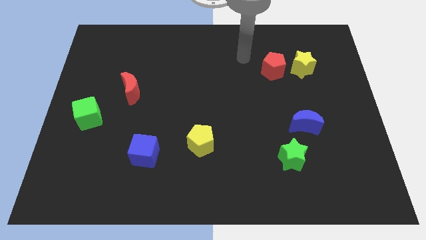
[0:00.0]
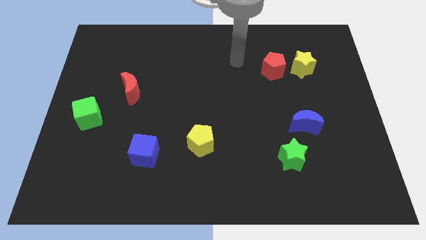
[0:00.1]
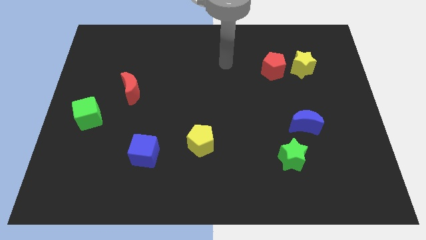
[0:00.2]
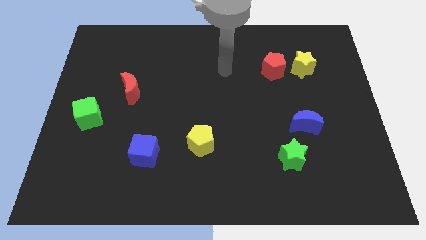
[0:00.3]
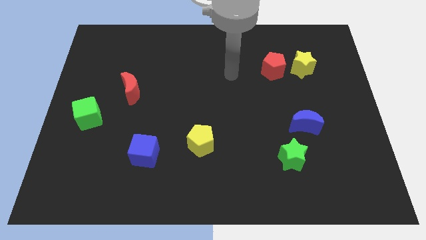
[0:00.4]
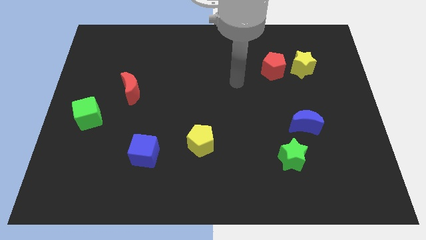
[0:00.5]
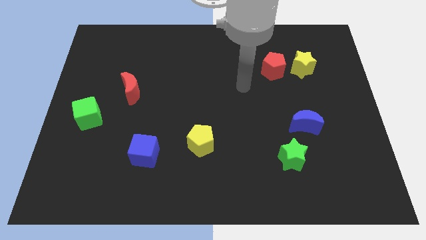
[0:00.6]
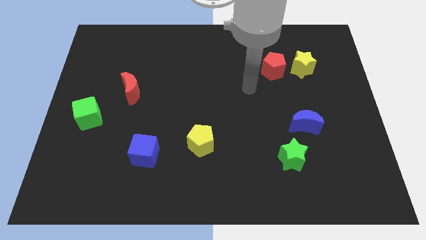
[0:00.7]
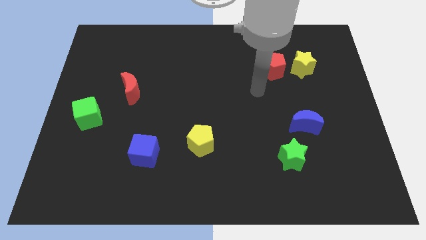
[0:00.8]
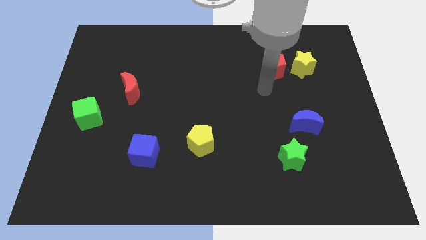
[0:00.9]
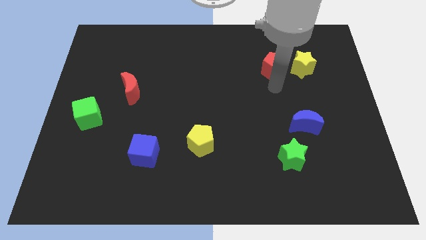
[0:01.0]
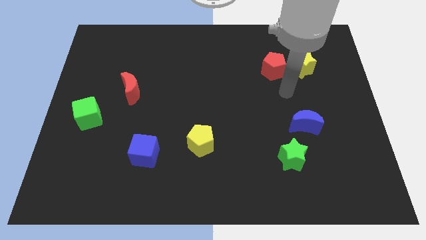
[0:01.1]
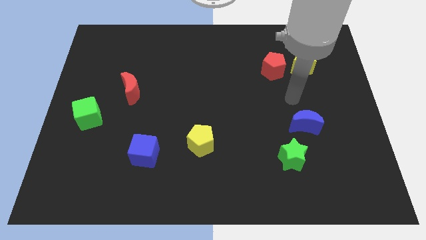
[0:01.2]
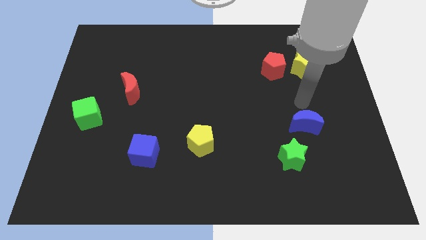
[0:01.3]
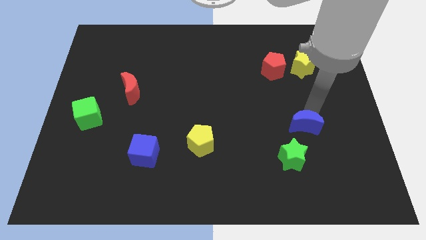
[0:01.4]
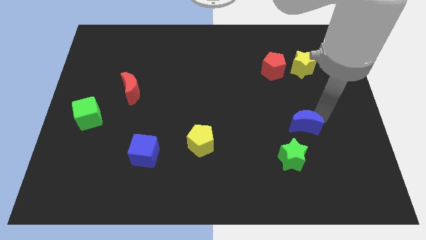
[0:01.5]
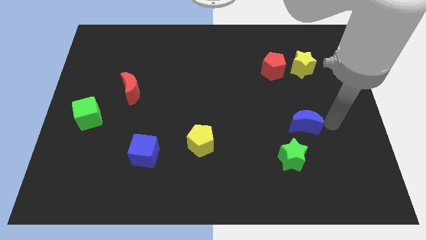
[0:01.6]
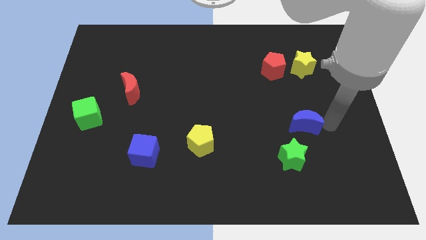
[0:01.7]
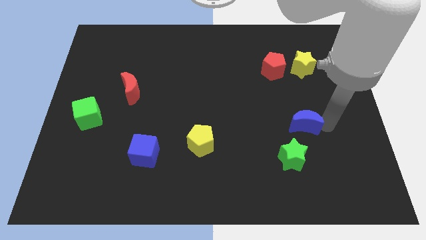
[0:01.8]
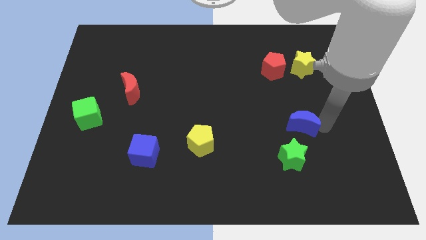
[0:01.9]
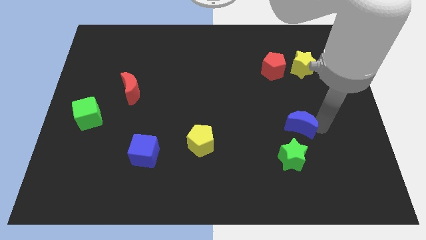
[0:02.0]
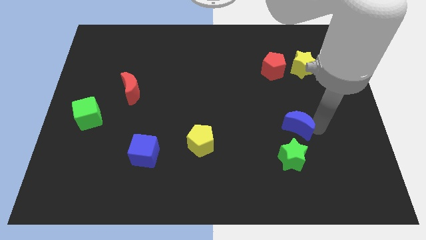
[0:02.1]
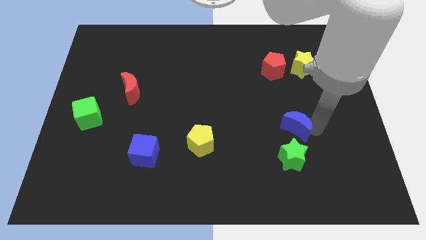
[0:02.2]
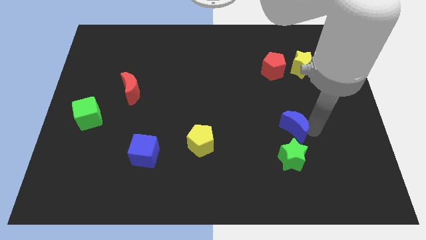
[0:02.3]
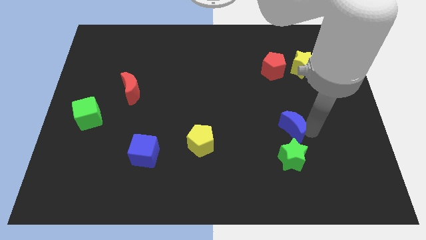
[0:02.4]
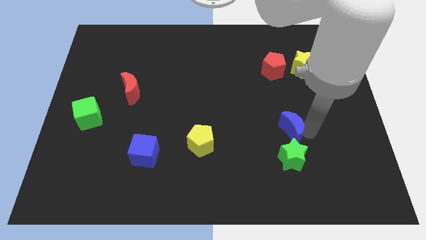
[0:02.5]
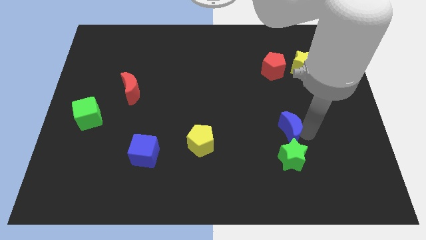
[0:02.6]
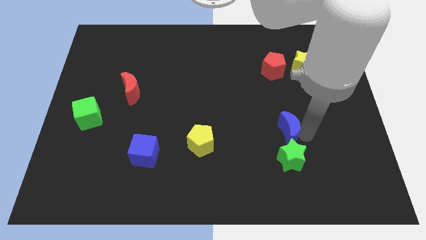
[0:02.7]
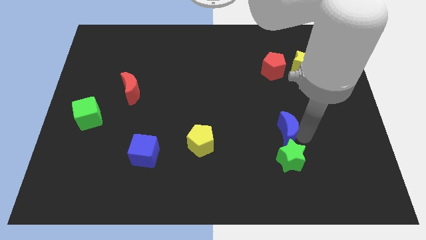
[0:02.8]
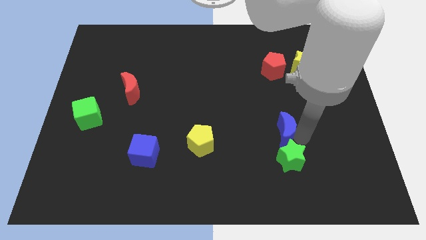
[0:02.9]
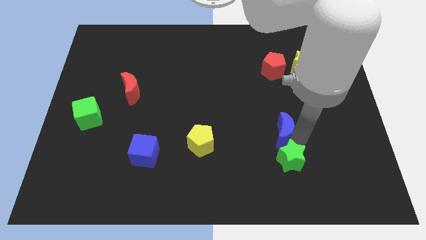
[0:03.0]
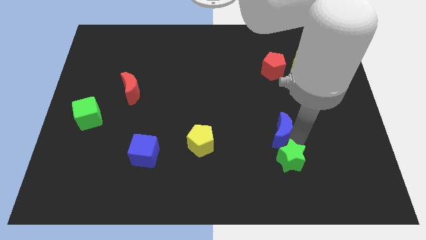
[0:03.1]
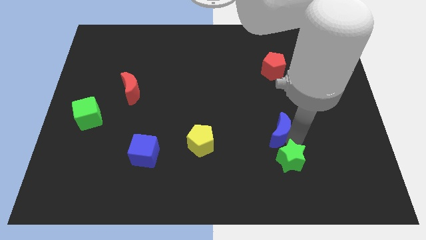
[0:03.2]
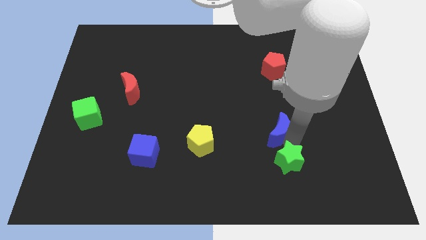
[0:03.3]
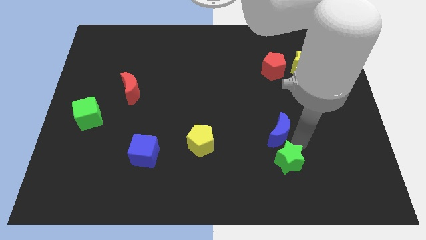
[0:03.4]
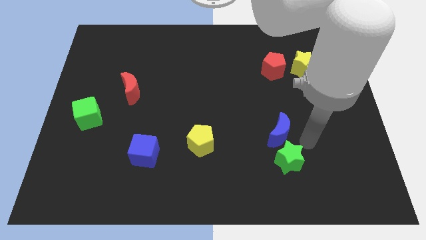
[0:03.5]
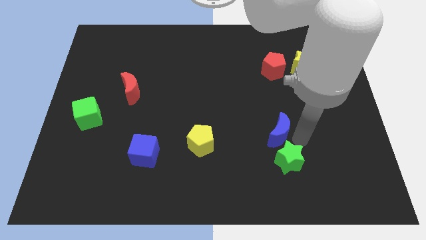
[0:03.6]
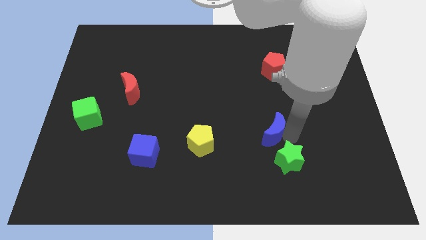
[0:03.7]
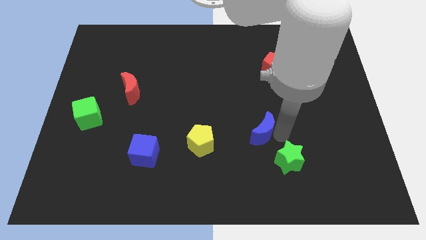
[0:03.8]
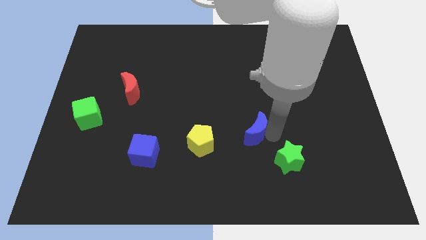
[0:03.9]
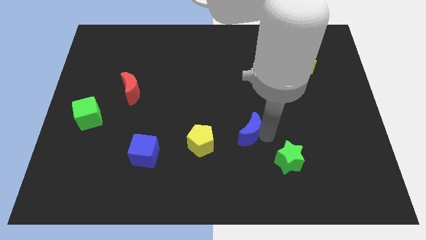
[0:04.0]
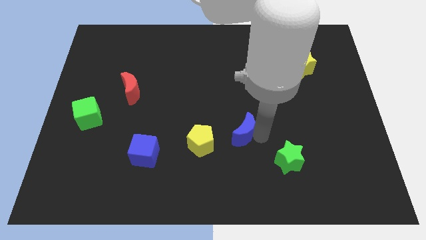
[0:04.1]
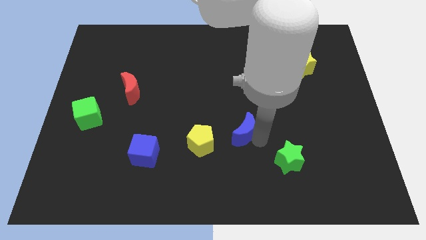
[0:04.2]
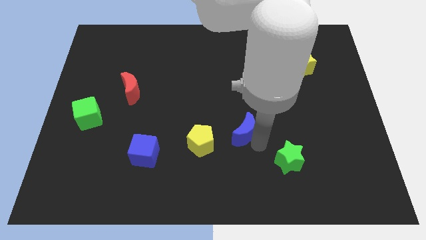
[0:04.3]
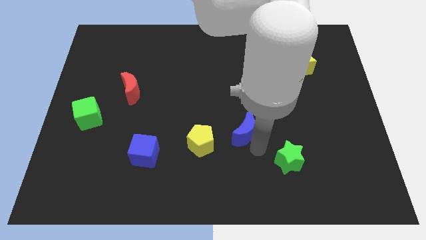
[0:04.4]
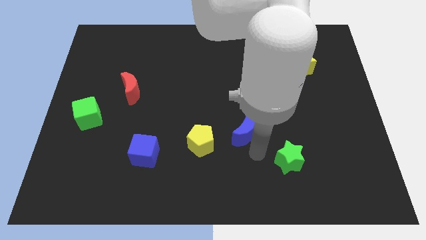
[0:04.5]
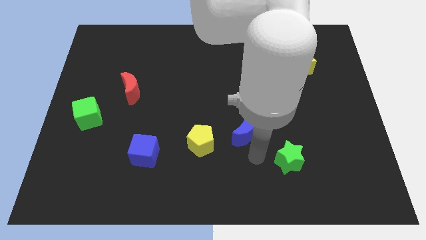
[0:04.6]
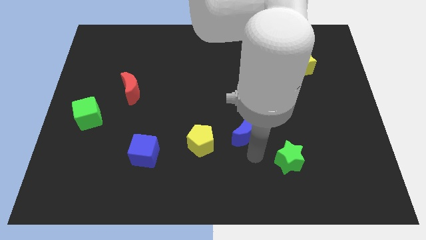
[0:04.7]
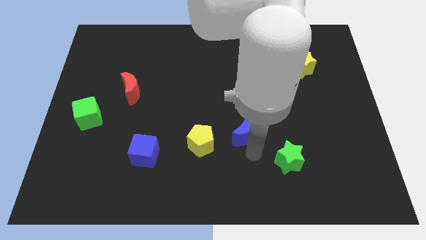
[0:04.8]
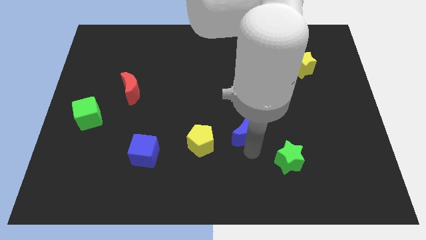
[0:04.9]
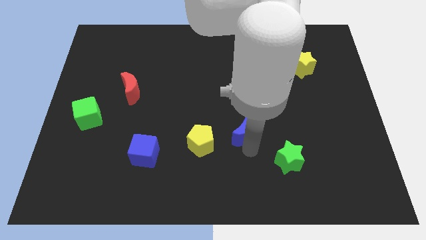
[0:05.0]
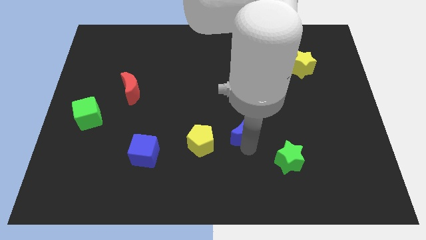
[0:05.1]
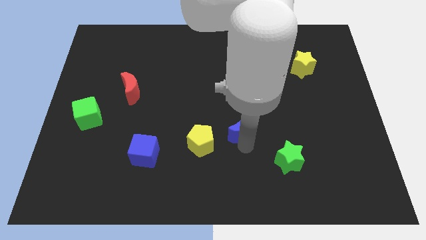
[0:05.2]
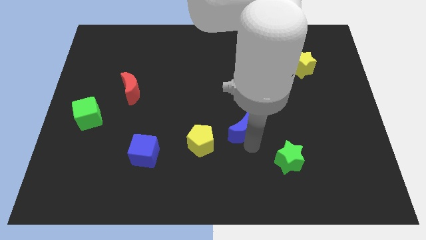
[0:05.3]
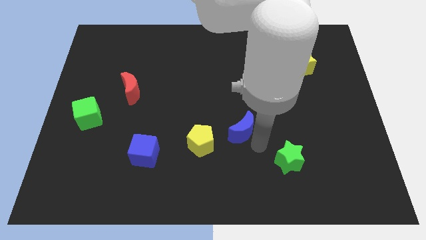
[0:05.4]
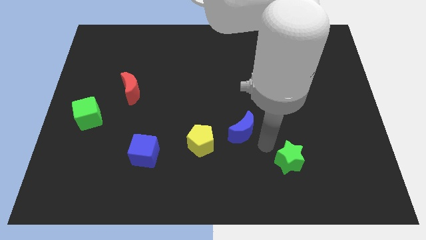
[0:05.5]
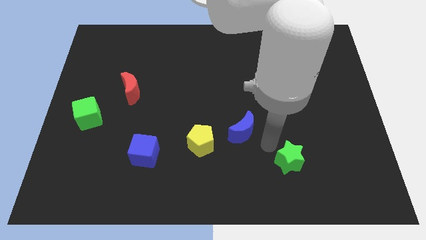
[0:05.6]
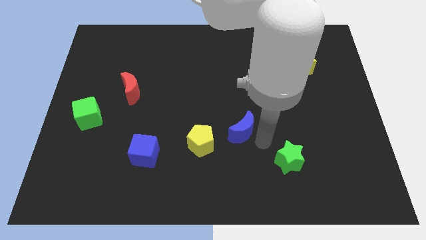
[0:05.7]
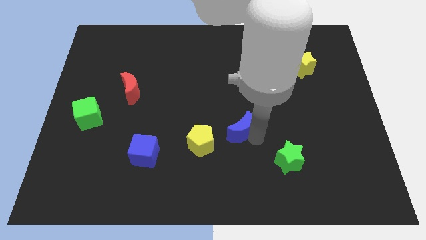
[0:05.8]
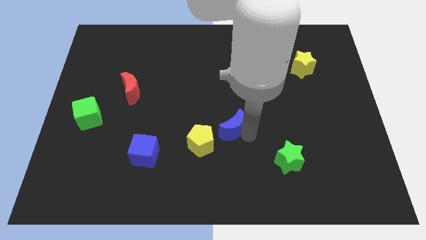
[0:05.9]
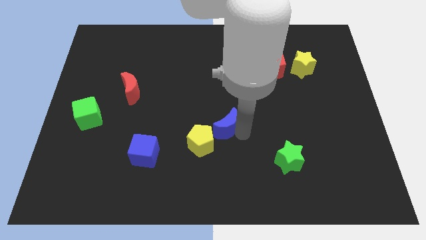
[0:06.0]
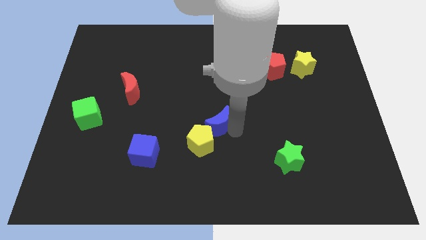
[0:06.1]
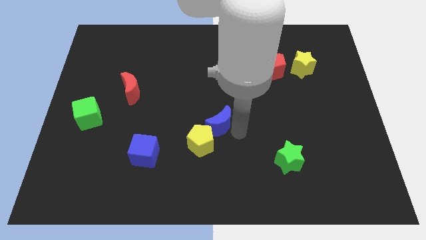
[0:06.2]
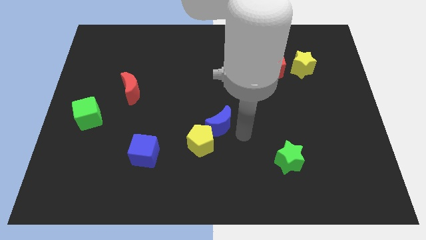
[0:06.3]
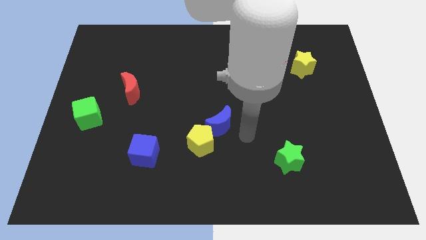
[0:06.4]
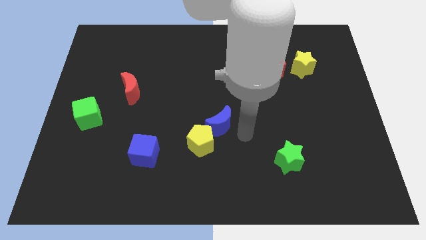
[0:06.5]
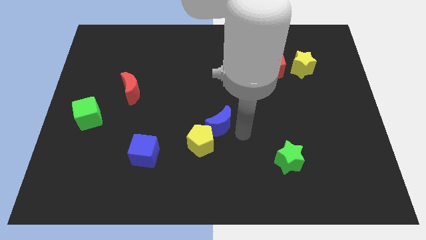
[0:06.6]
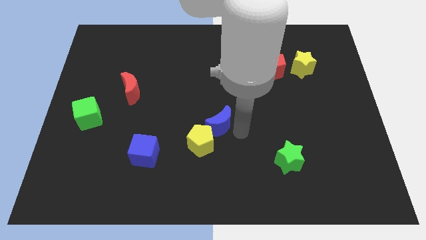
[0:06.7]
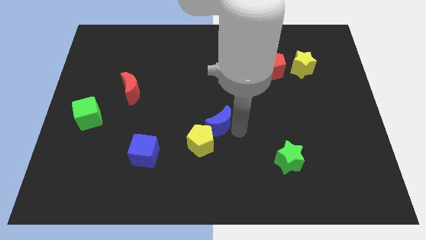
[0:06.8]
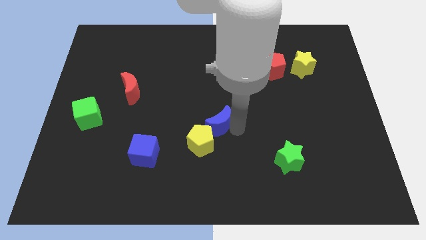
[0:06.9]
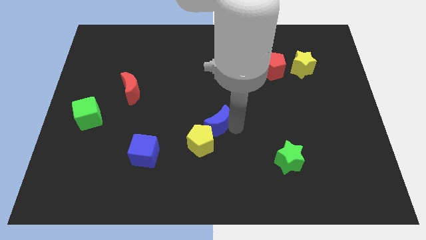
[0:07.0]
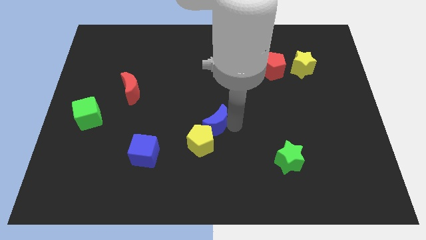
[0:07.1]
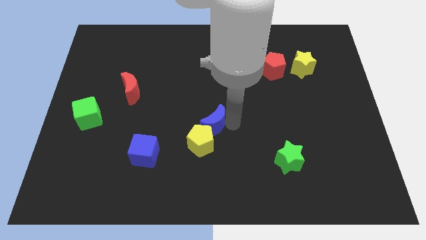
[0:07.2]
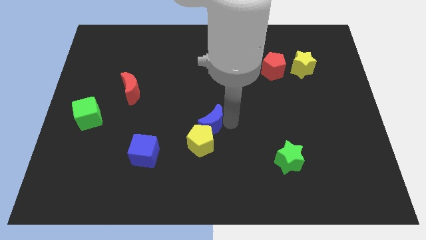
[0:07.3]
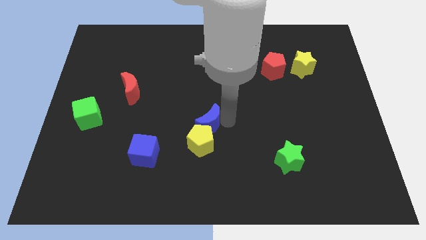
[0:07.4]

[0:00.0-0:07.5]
push the blue moon to the top left of the yellow pentagon
